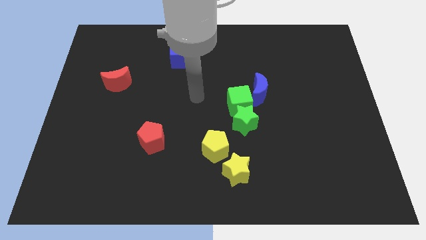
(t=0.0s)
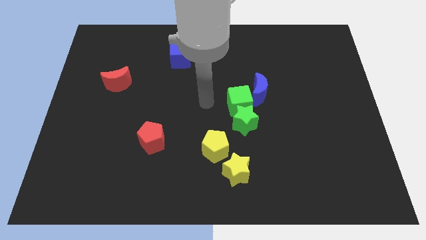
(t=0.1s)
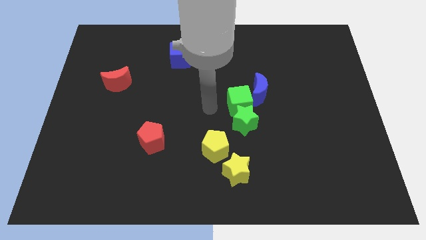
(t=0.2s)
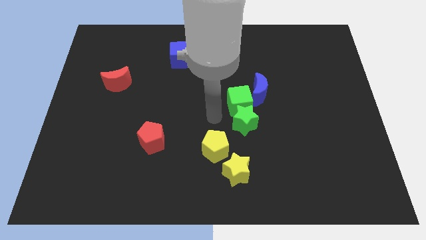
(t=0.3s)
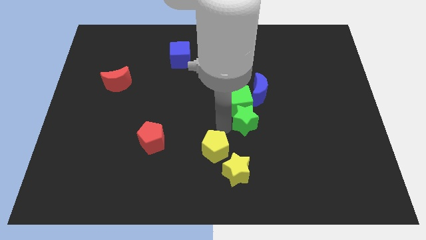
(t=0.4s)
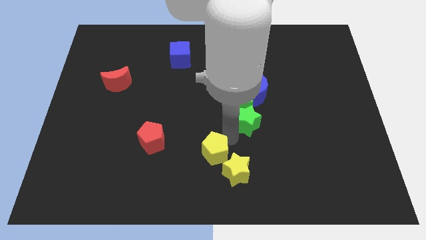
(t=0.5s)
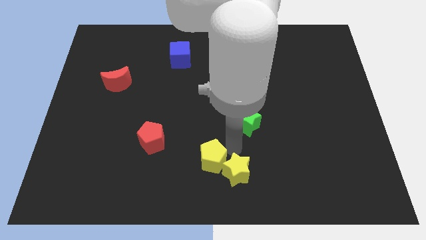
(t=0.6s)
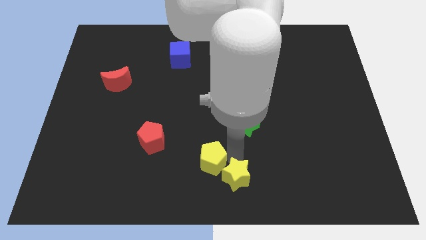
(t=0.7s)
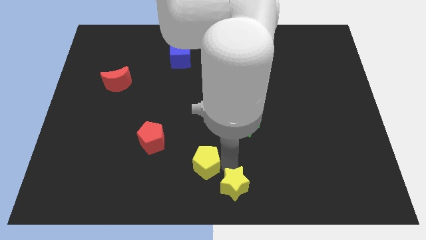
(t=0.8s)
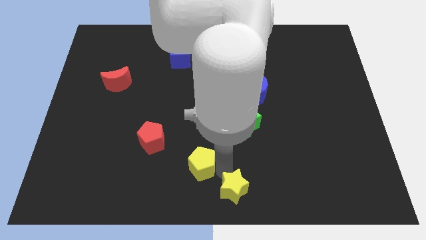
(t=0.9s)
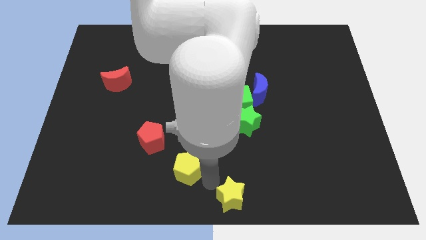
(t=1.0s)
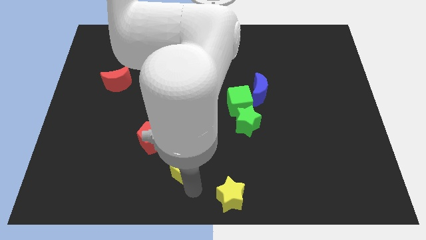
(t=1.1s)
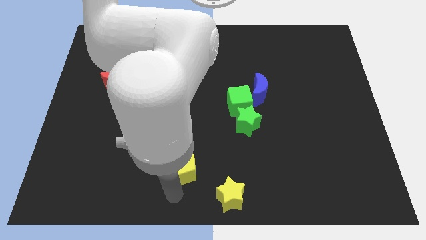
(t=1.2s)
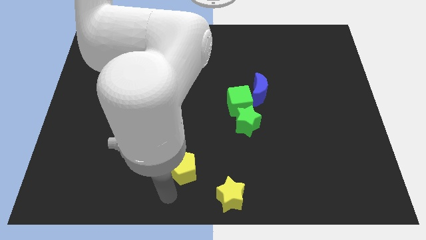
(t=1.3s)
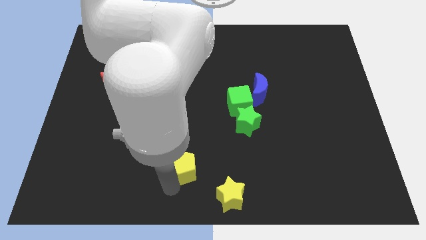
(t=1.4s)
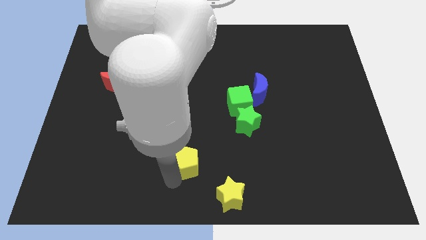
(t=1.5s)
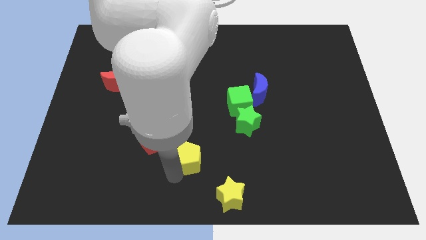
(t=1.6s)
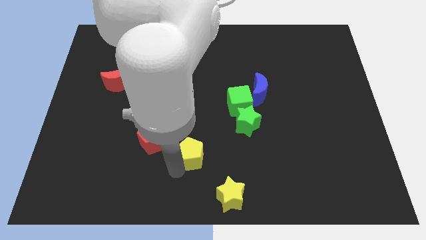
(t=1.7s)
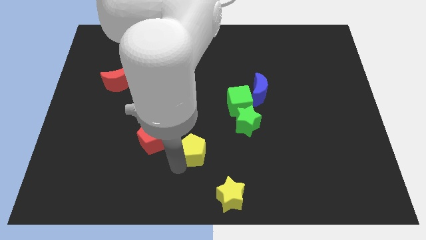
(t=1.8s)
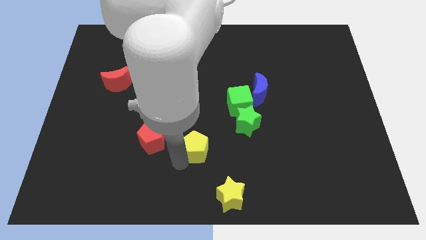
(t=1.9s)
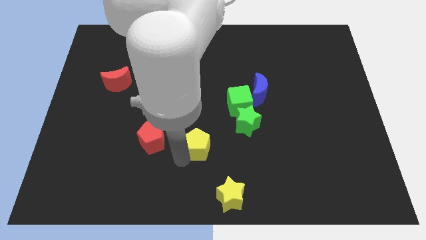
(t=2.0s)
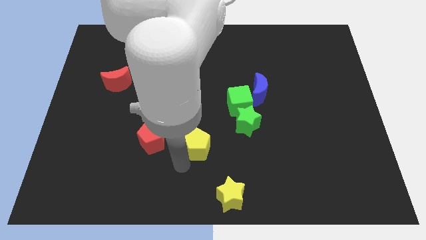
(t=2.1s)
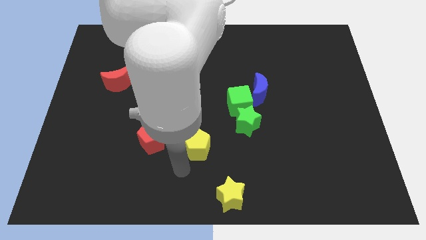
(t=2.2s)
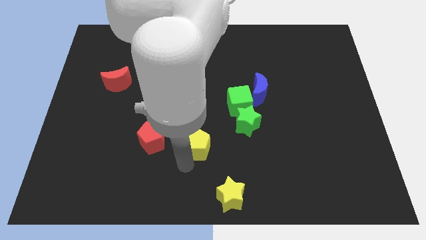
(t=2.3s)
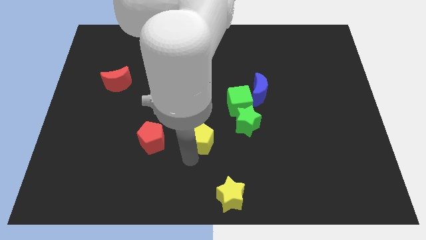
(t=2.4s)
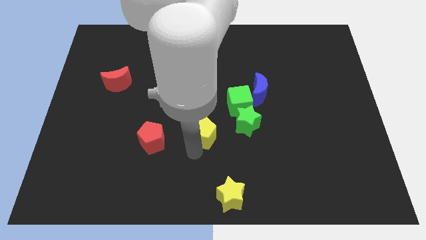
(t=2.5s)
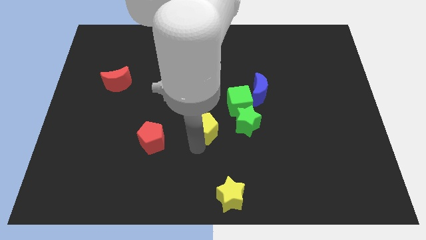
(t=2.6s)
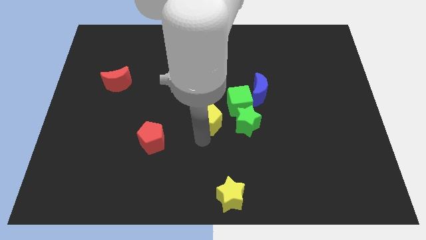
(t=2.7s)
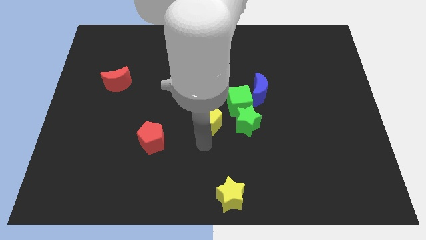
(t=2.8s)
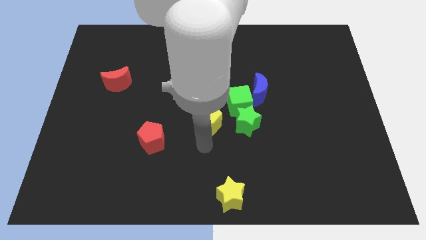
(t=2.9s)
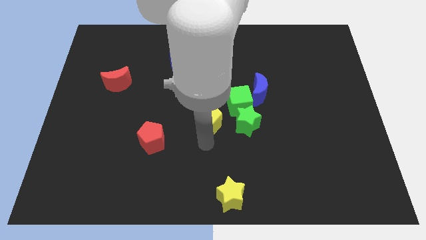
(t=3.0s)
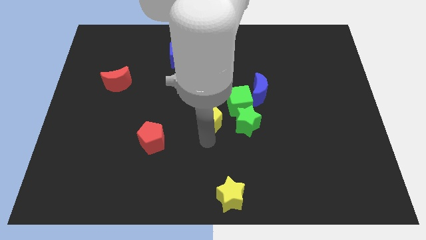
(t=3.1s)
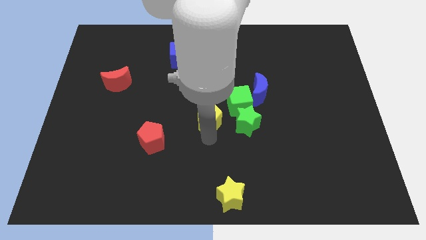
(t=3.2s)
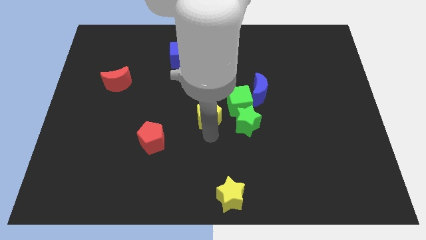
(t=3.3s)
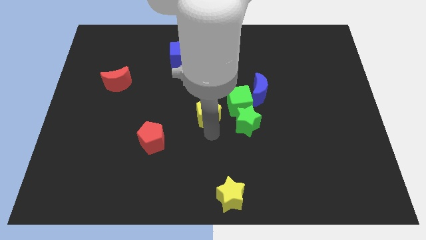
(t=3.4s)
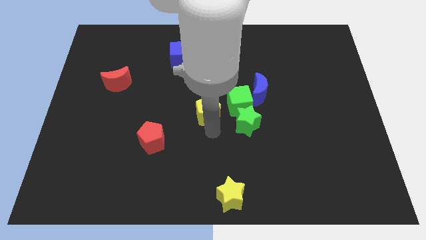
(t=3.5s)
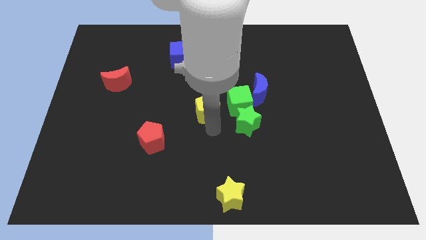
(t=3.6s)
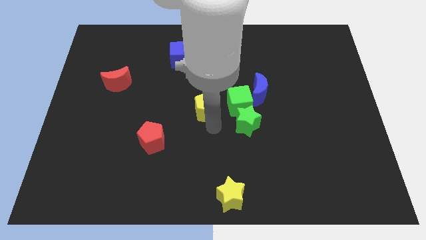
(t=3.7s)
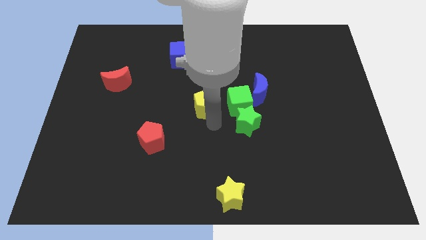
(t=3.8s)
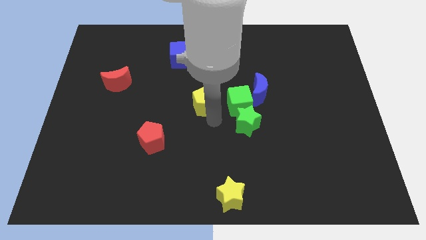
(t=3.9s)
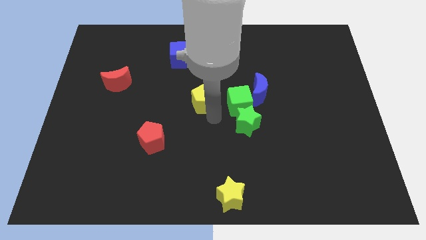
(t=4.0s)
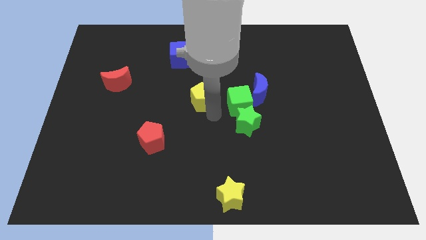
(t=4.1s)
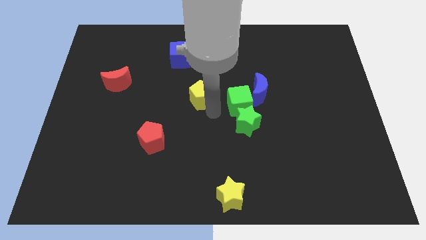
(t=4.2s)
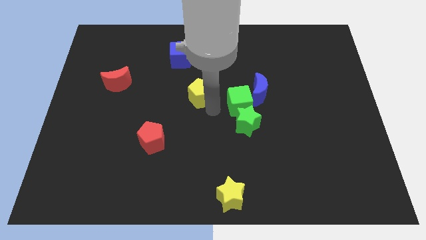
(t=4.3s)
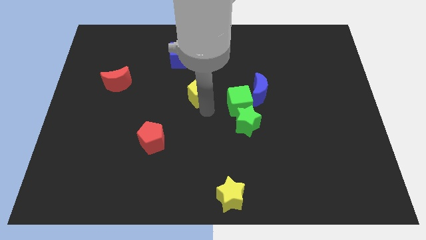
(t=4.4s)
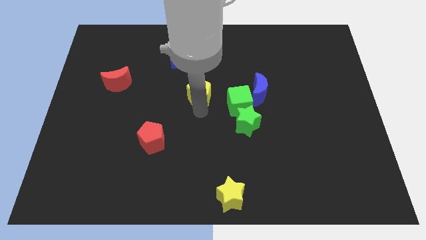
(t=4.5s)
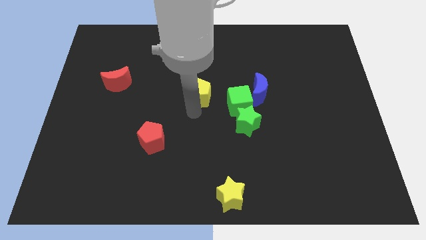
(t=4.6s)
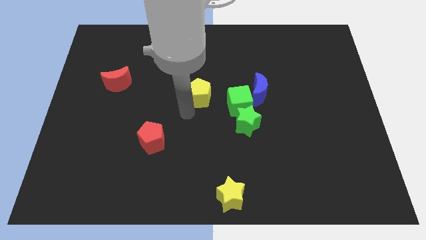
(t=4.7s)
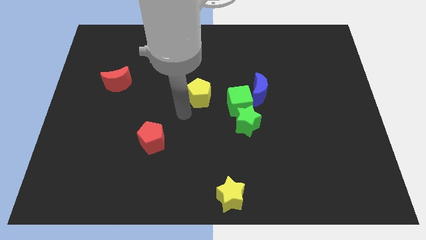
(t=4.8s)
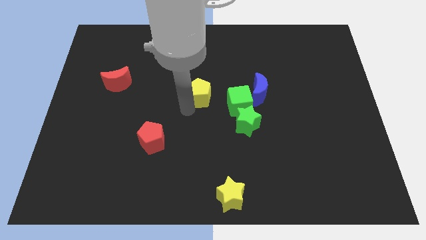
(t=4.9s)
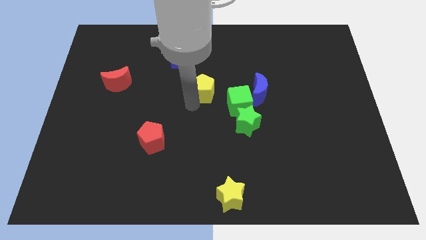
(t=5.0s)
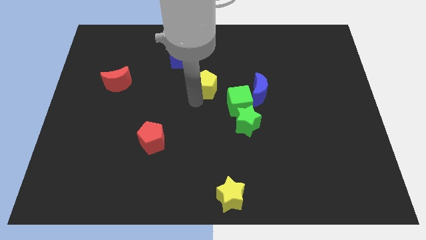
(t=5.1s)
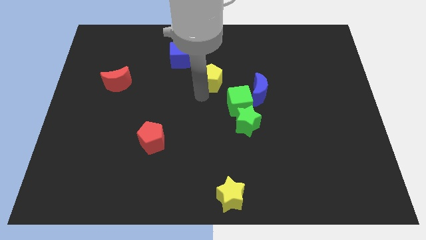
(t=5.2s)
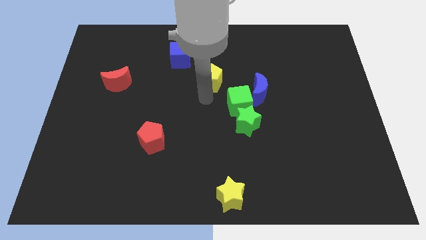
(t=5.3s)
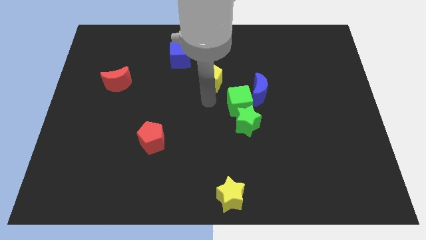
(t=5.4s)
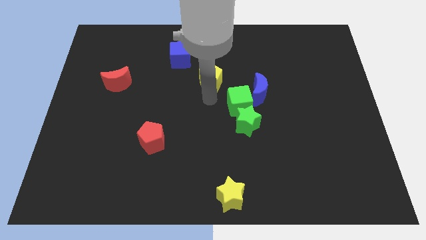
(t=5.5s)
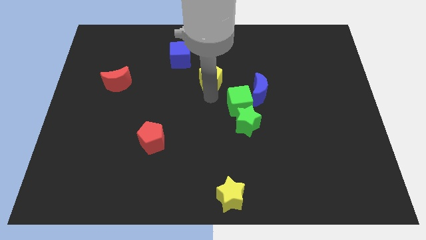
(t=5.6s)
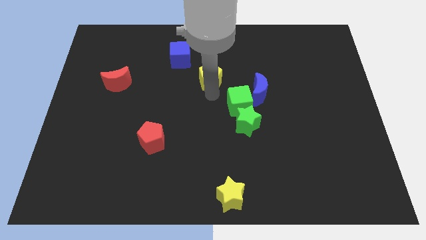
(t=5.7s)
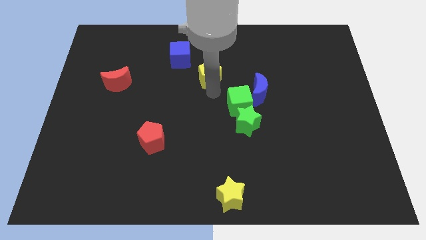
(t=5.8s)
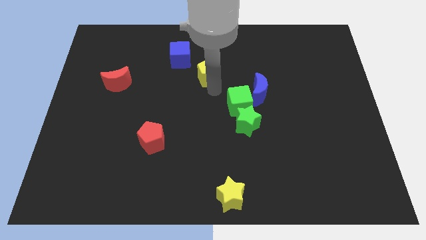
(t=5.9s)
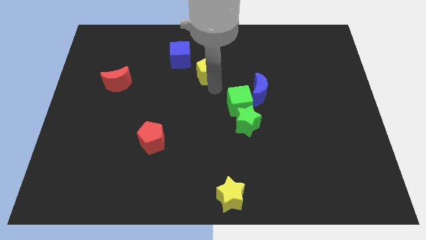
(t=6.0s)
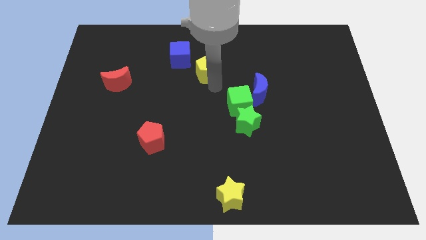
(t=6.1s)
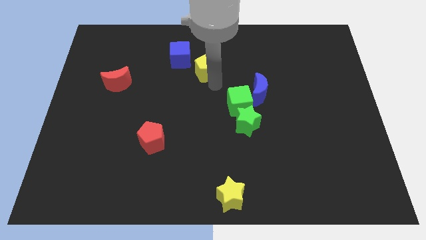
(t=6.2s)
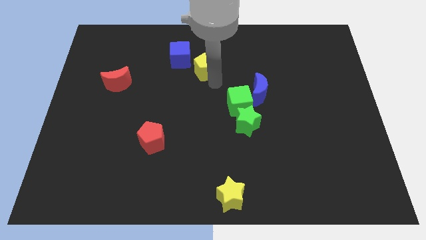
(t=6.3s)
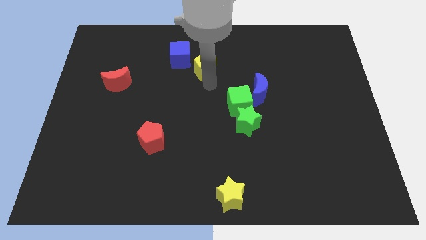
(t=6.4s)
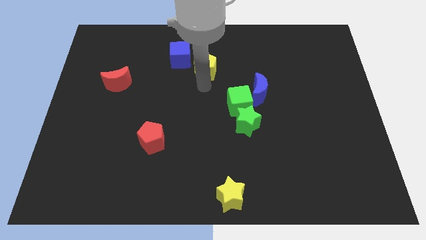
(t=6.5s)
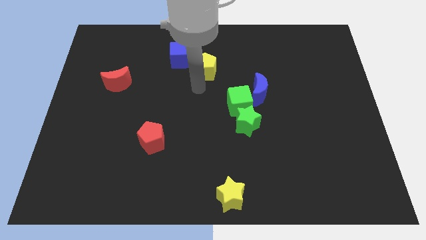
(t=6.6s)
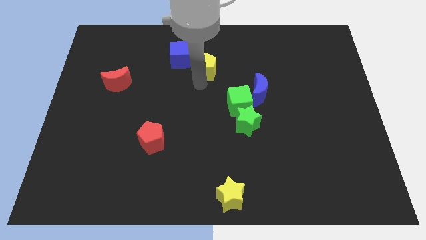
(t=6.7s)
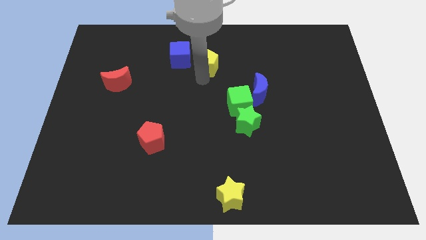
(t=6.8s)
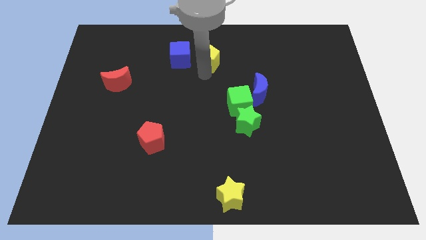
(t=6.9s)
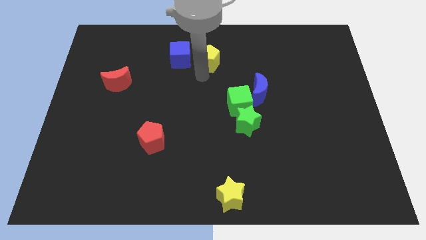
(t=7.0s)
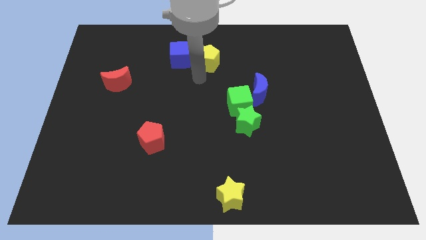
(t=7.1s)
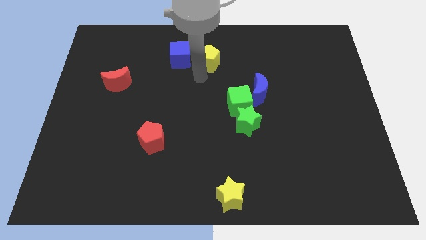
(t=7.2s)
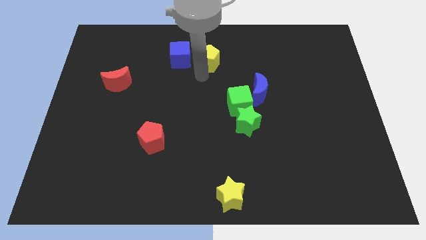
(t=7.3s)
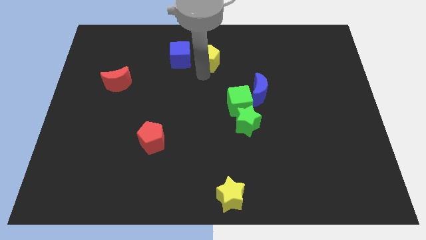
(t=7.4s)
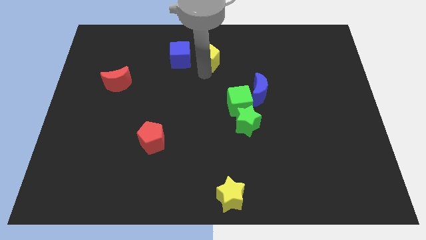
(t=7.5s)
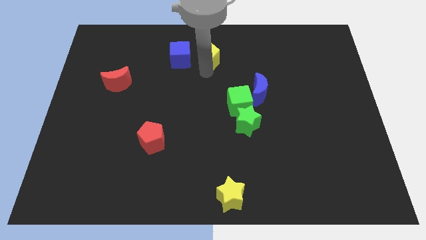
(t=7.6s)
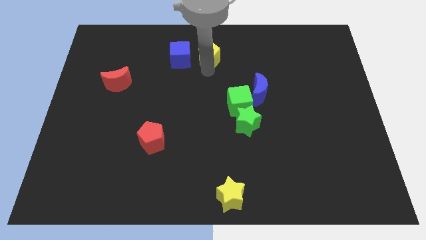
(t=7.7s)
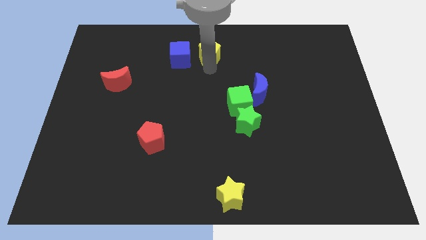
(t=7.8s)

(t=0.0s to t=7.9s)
slide the yellow pentagon to the top
